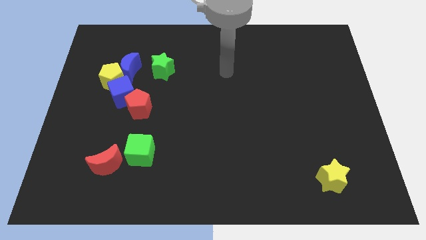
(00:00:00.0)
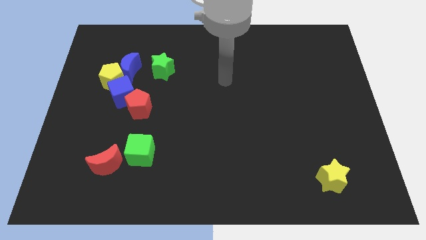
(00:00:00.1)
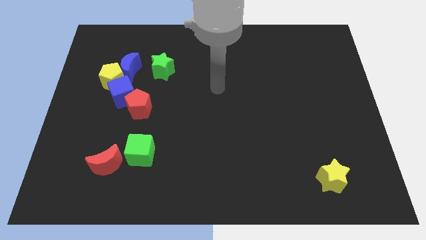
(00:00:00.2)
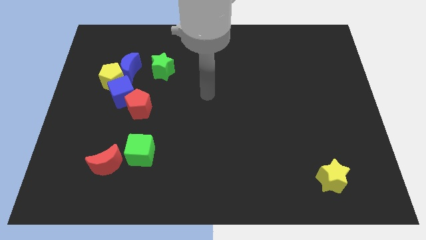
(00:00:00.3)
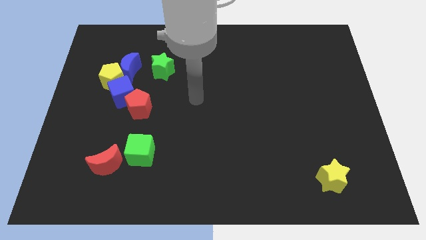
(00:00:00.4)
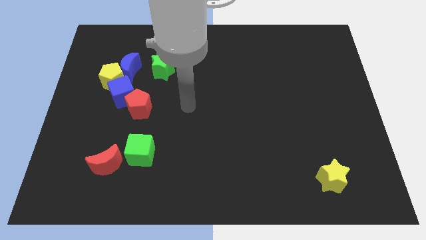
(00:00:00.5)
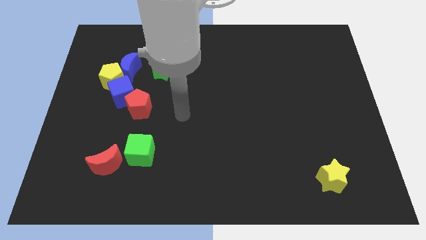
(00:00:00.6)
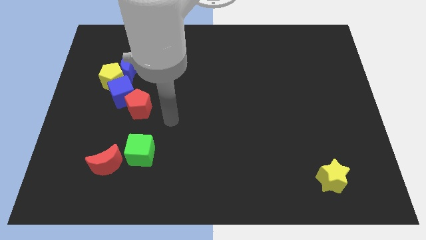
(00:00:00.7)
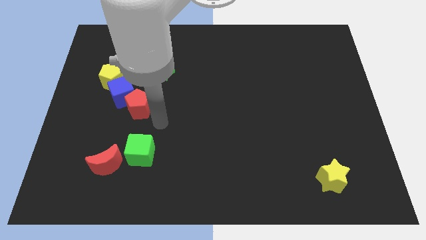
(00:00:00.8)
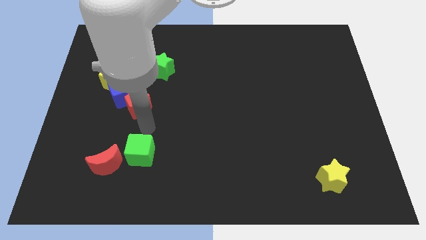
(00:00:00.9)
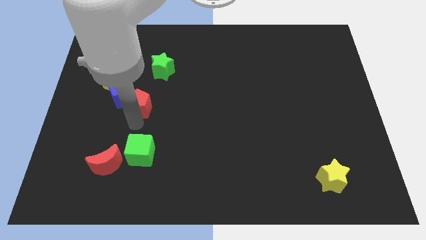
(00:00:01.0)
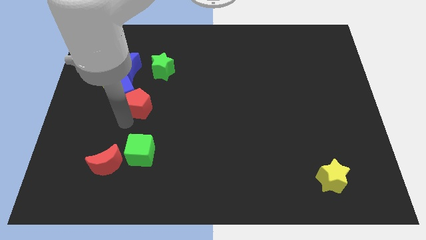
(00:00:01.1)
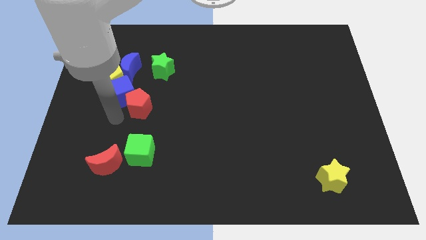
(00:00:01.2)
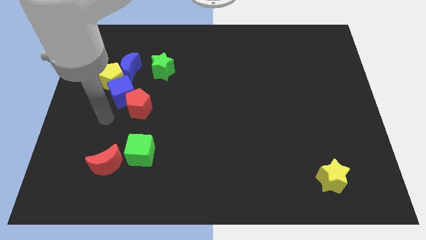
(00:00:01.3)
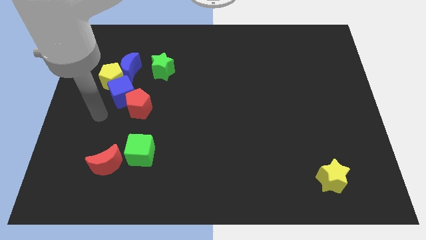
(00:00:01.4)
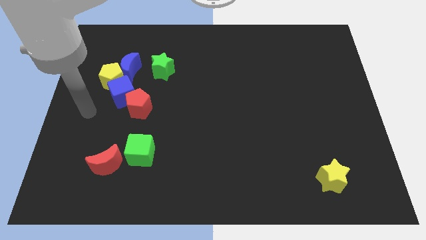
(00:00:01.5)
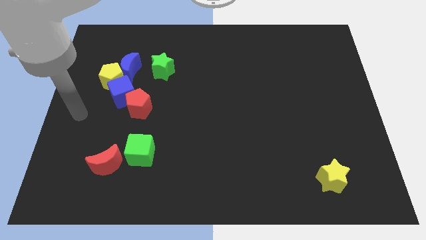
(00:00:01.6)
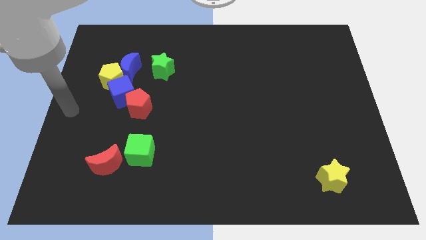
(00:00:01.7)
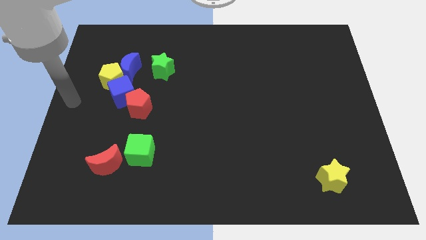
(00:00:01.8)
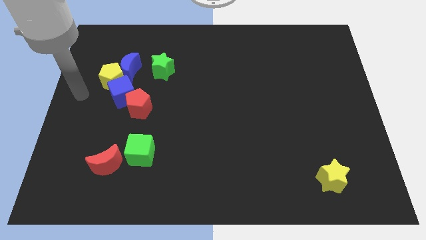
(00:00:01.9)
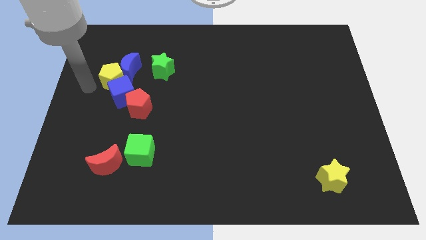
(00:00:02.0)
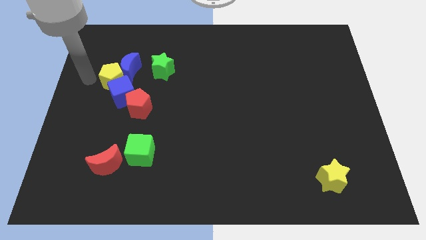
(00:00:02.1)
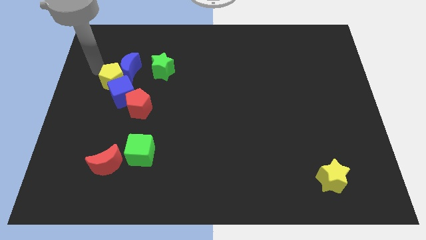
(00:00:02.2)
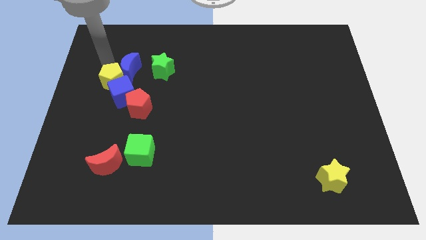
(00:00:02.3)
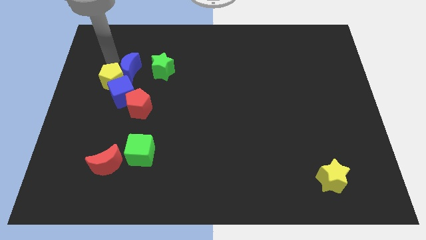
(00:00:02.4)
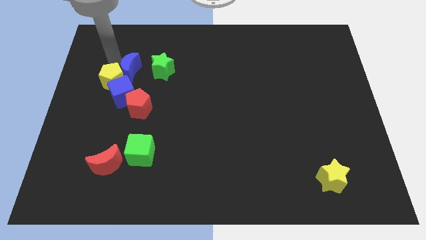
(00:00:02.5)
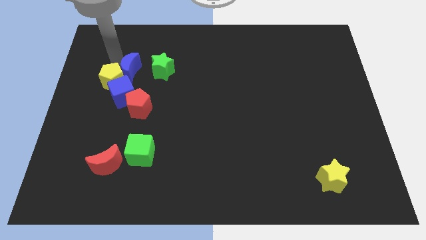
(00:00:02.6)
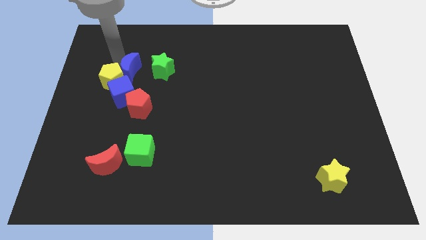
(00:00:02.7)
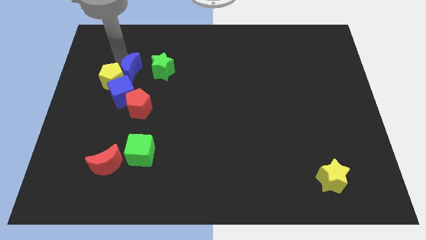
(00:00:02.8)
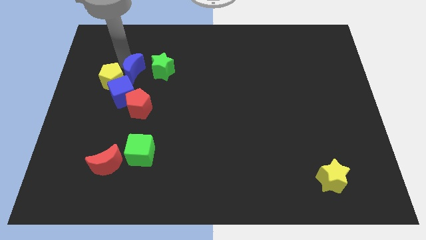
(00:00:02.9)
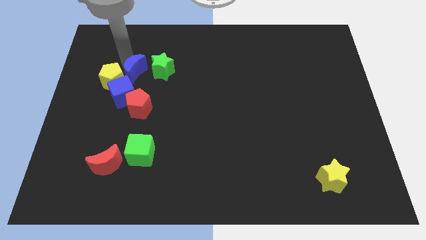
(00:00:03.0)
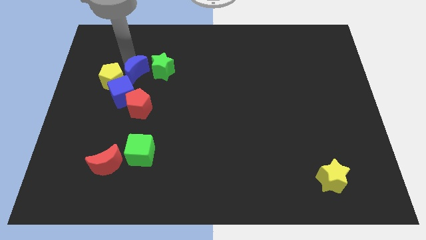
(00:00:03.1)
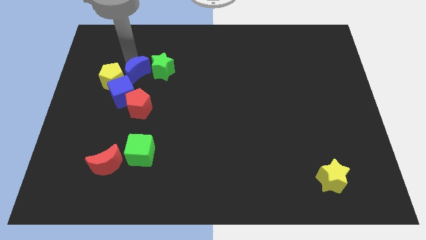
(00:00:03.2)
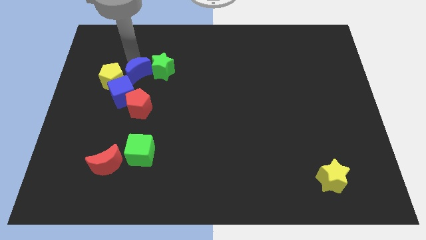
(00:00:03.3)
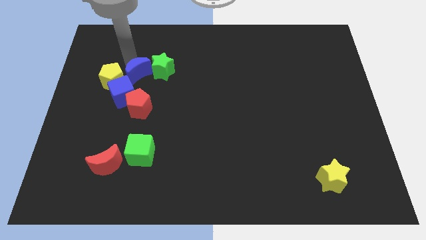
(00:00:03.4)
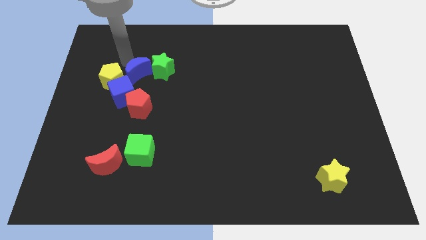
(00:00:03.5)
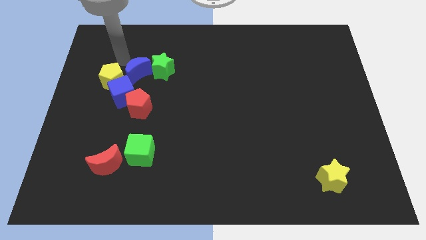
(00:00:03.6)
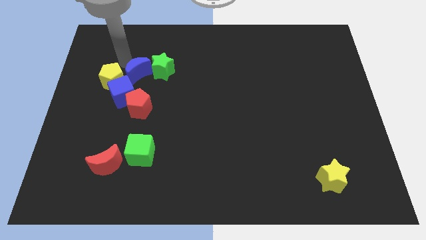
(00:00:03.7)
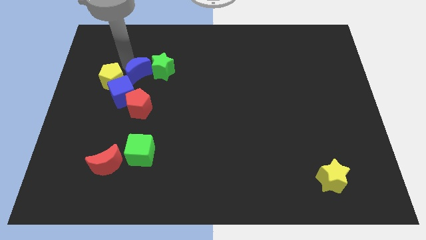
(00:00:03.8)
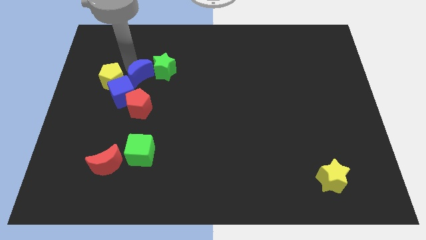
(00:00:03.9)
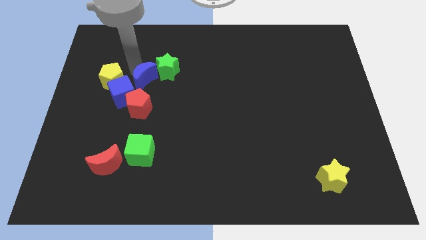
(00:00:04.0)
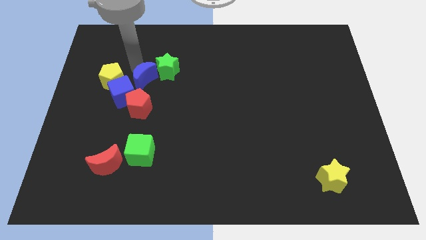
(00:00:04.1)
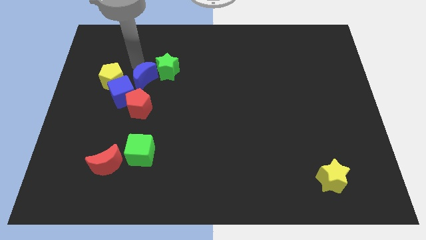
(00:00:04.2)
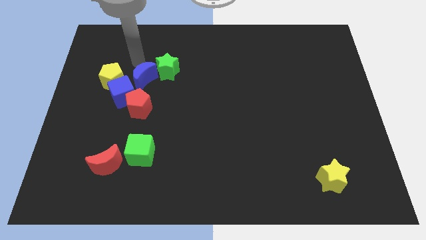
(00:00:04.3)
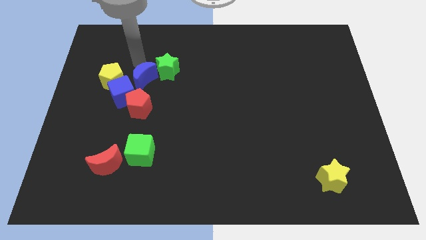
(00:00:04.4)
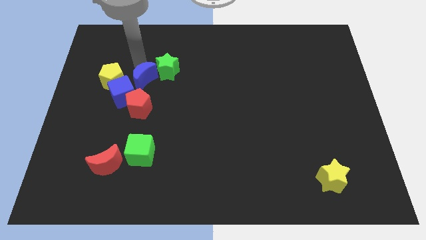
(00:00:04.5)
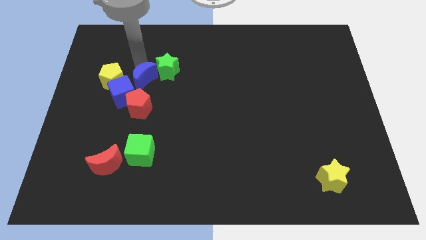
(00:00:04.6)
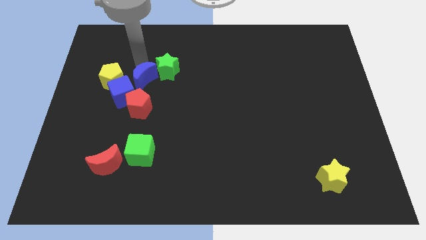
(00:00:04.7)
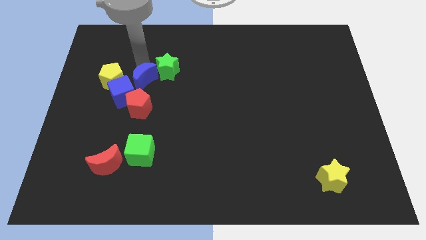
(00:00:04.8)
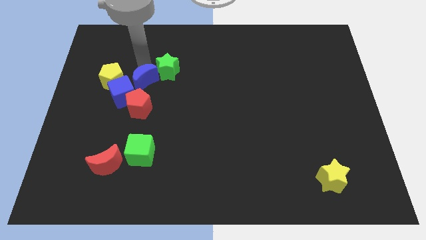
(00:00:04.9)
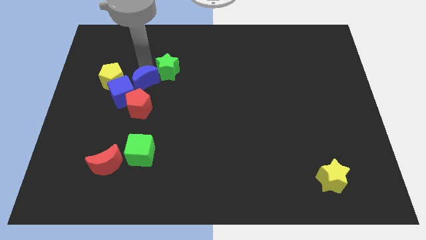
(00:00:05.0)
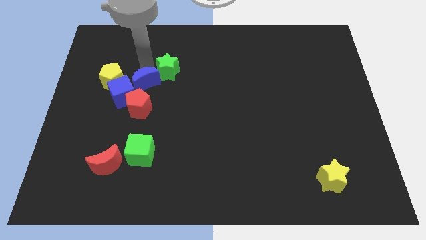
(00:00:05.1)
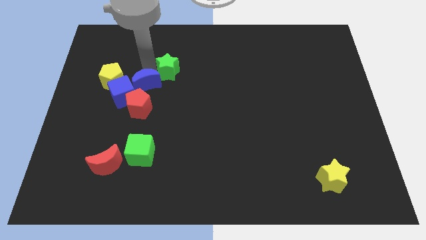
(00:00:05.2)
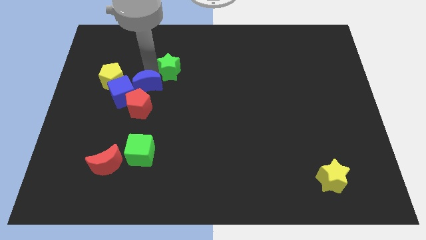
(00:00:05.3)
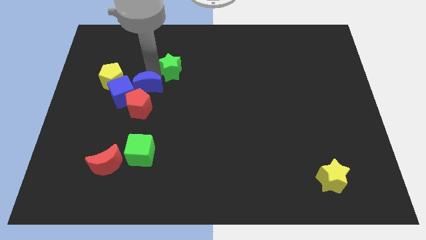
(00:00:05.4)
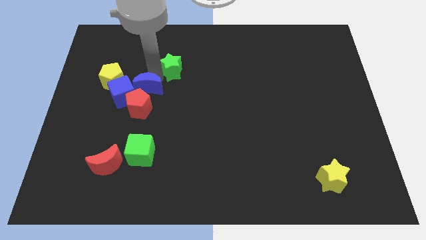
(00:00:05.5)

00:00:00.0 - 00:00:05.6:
move the blue moon next to the red pentagon

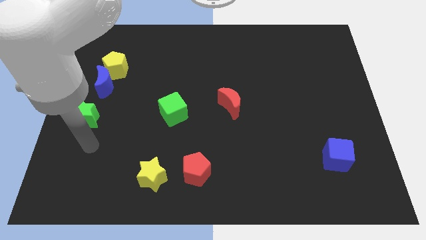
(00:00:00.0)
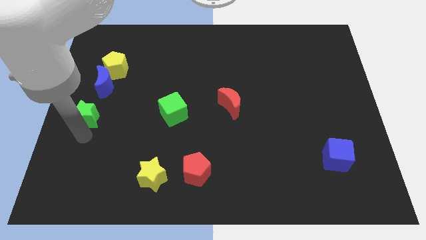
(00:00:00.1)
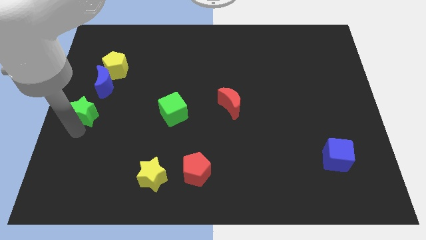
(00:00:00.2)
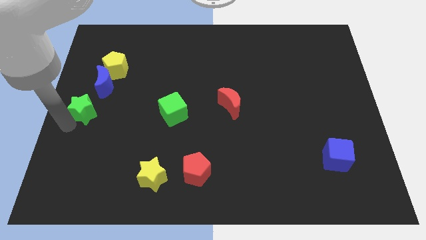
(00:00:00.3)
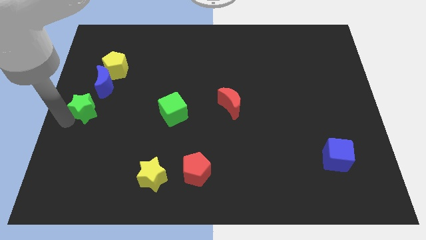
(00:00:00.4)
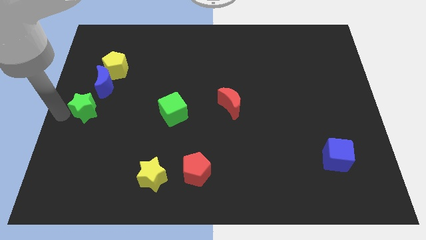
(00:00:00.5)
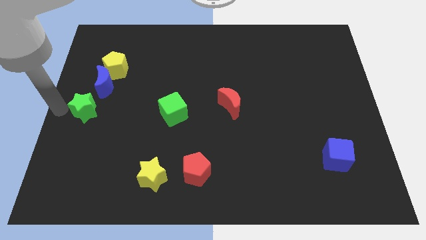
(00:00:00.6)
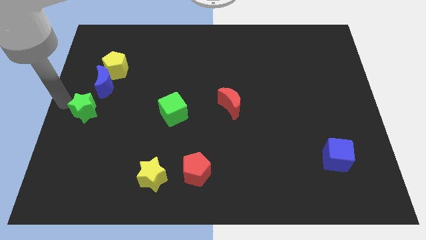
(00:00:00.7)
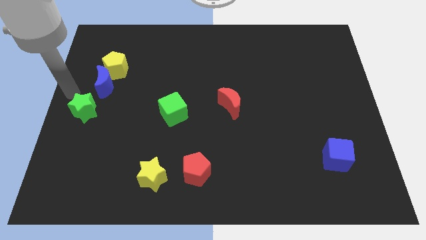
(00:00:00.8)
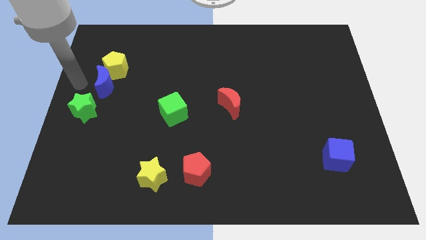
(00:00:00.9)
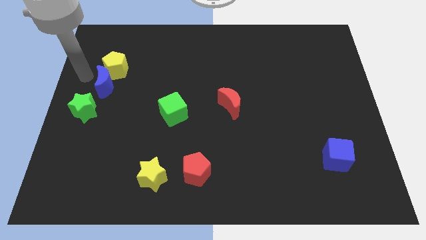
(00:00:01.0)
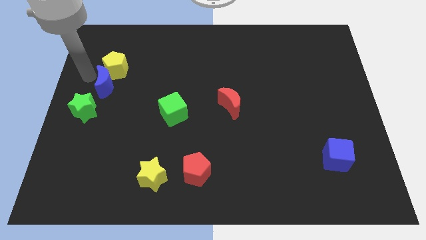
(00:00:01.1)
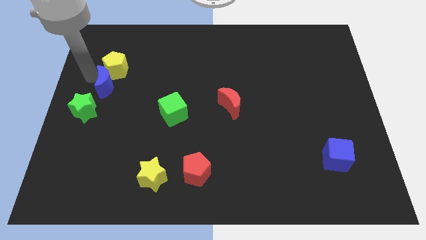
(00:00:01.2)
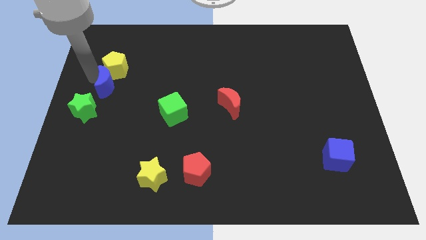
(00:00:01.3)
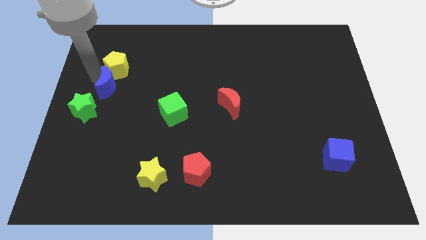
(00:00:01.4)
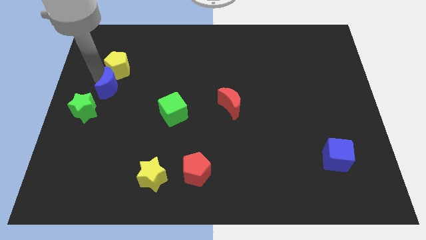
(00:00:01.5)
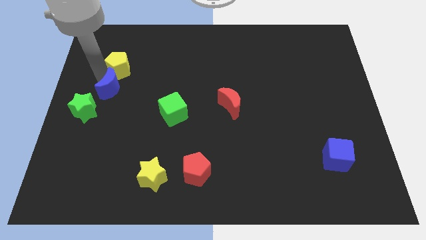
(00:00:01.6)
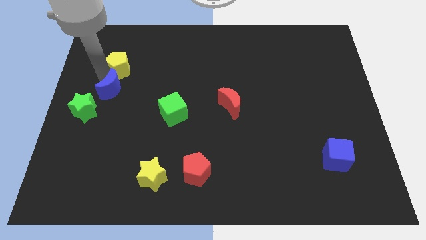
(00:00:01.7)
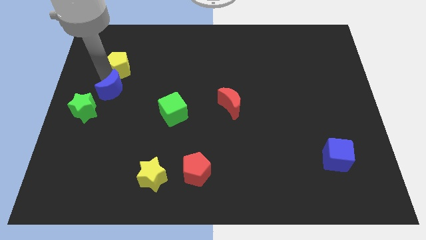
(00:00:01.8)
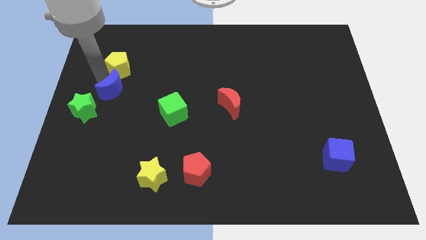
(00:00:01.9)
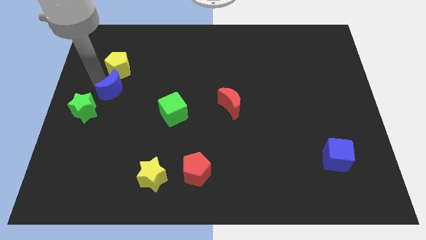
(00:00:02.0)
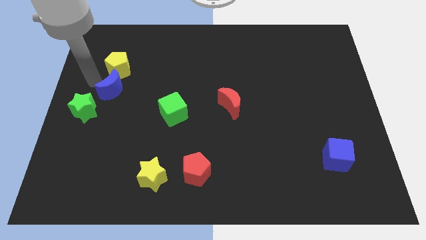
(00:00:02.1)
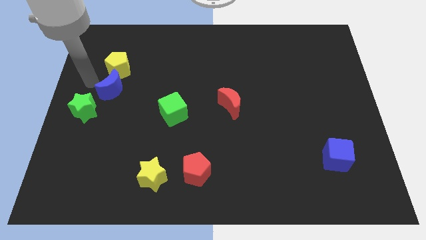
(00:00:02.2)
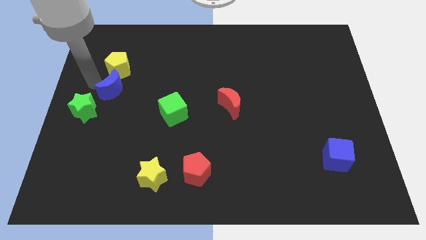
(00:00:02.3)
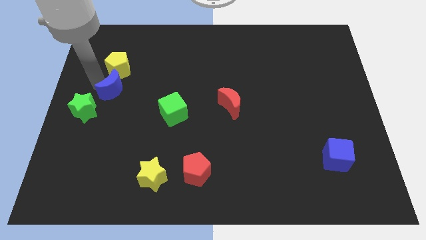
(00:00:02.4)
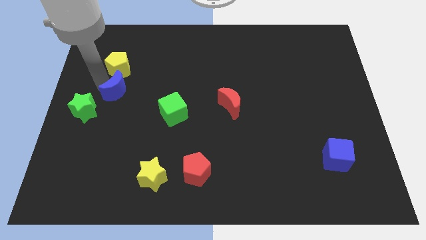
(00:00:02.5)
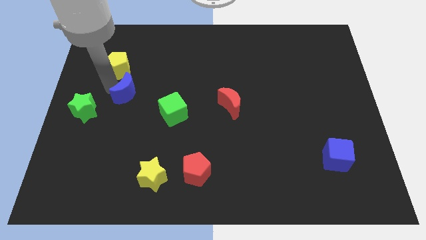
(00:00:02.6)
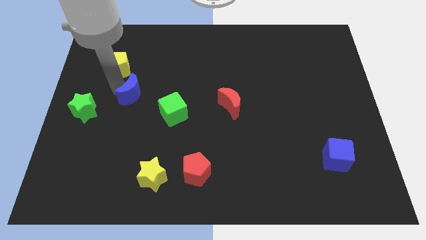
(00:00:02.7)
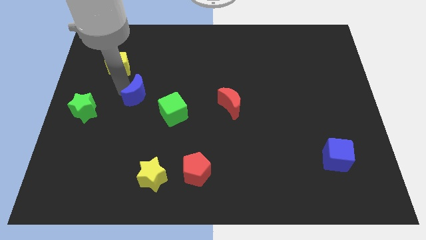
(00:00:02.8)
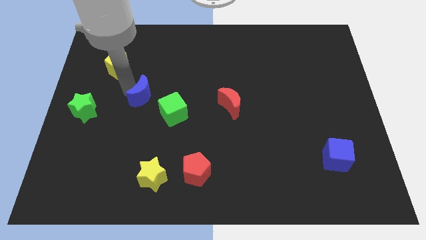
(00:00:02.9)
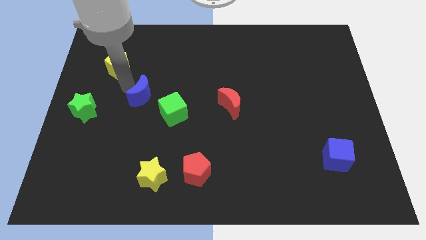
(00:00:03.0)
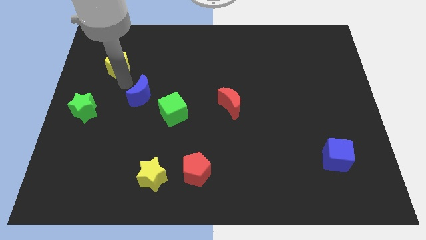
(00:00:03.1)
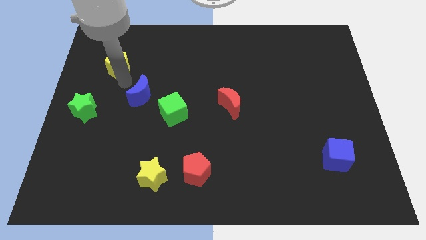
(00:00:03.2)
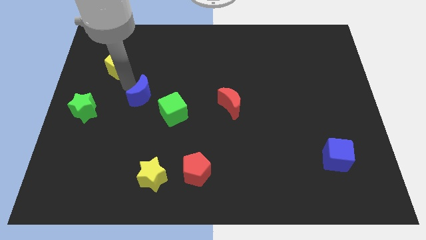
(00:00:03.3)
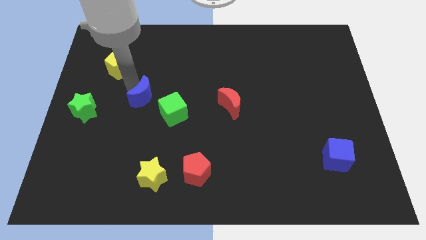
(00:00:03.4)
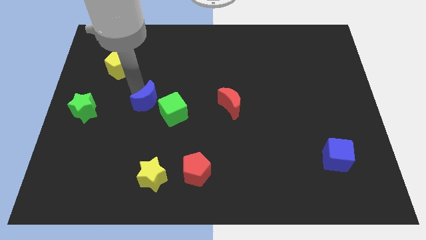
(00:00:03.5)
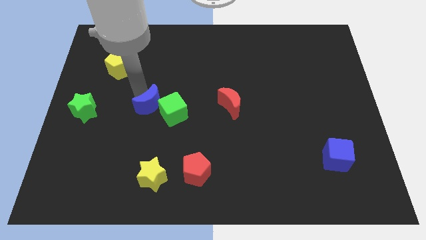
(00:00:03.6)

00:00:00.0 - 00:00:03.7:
push the blue moon close to the green cube
